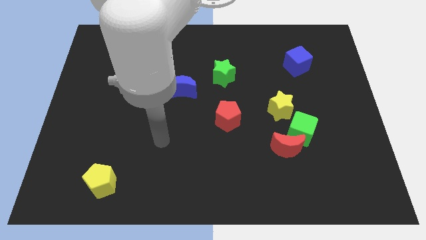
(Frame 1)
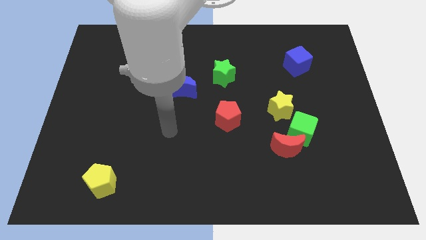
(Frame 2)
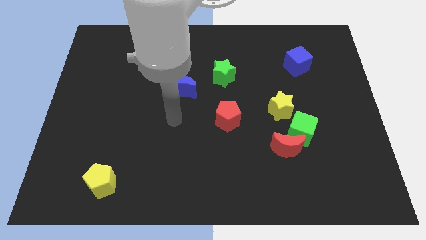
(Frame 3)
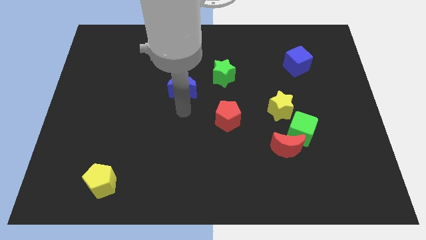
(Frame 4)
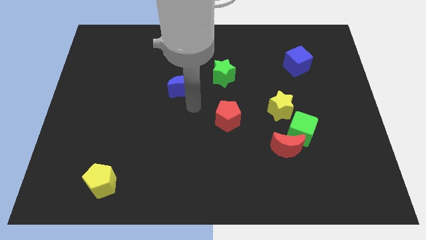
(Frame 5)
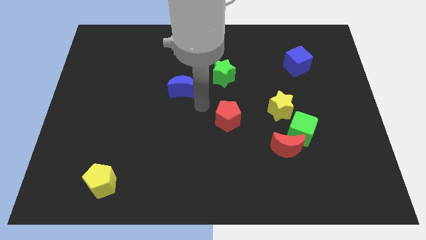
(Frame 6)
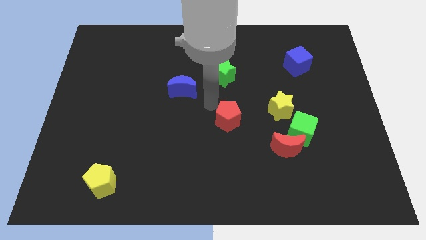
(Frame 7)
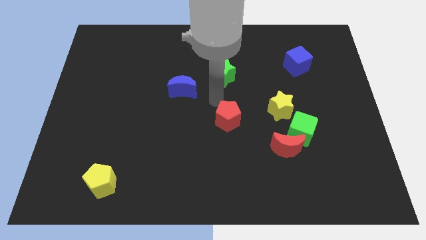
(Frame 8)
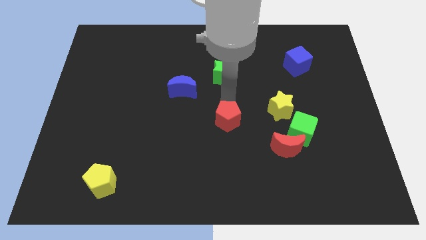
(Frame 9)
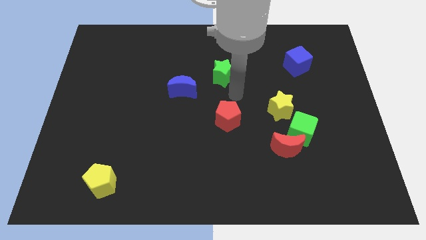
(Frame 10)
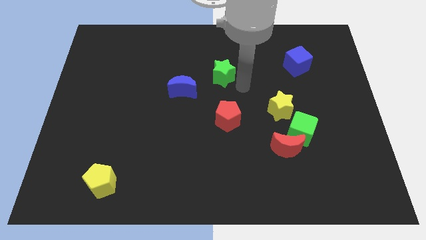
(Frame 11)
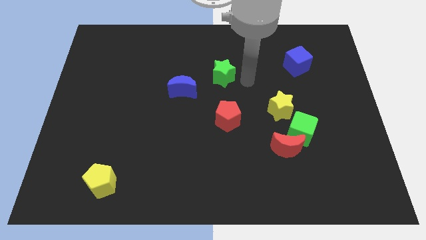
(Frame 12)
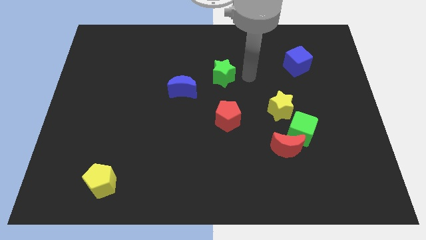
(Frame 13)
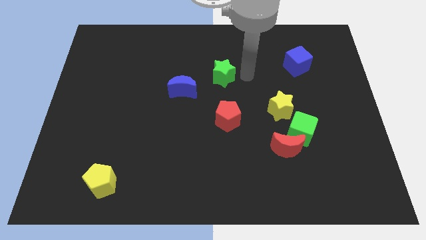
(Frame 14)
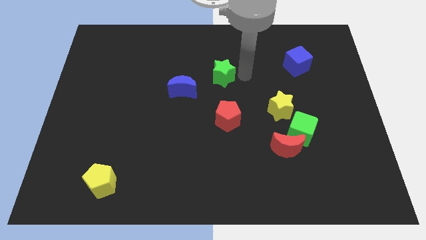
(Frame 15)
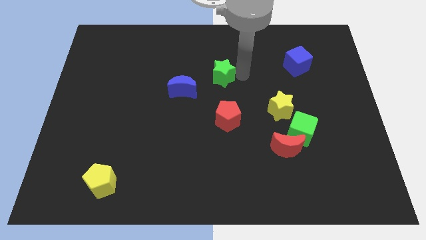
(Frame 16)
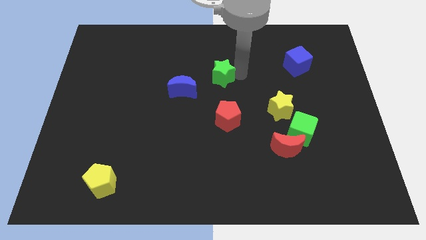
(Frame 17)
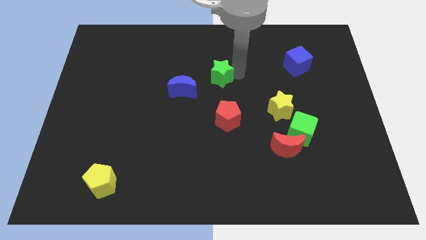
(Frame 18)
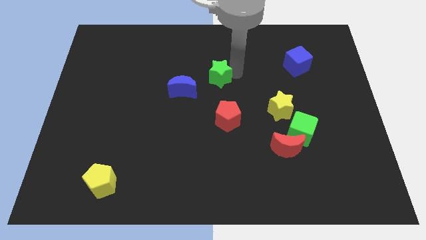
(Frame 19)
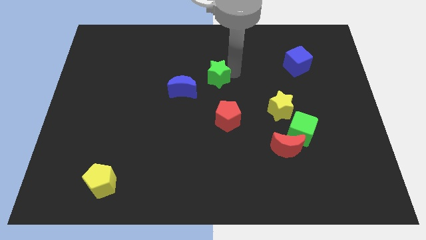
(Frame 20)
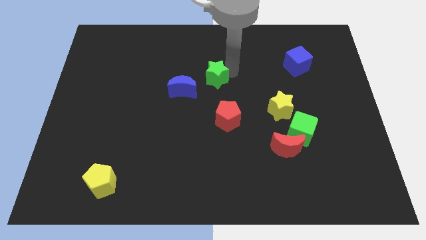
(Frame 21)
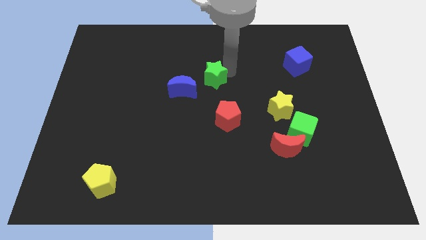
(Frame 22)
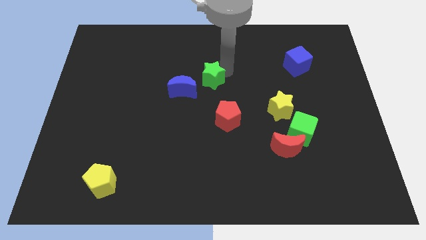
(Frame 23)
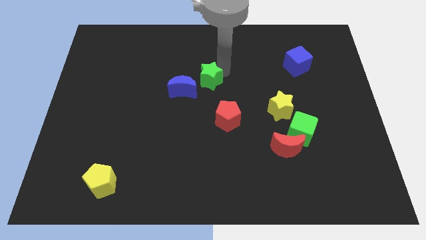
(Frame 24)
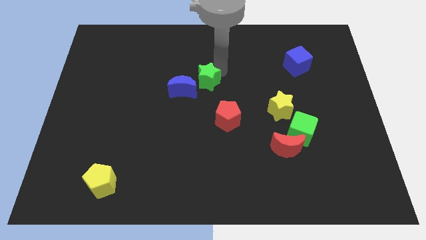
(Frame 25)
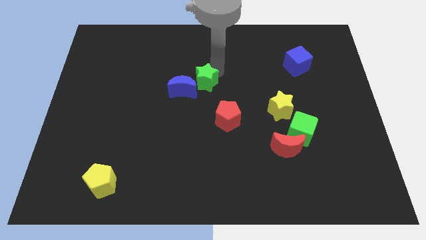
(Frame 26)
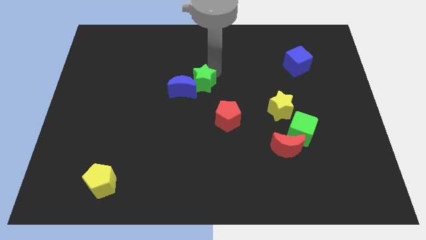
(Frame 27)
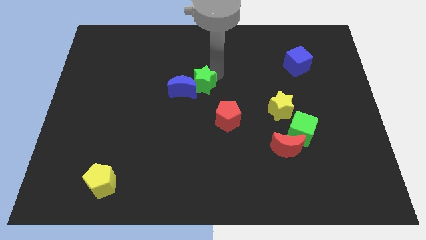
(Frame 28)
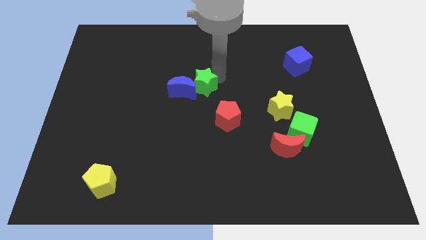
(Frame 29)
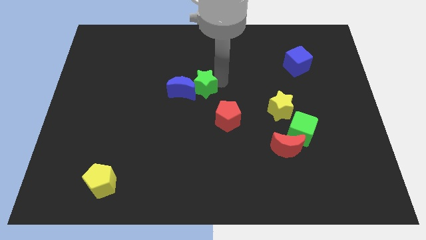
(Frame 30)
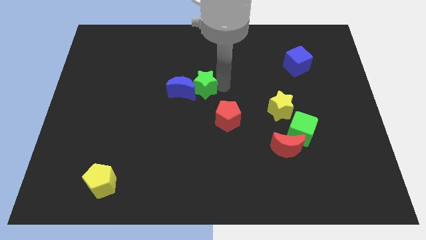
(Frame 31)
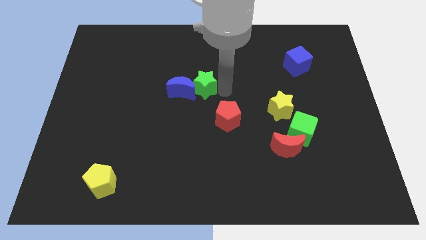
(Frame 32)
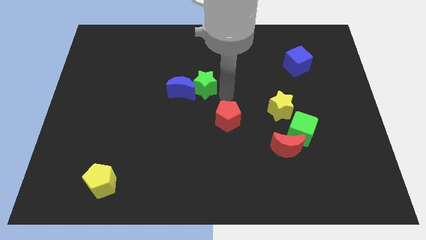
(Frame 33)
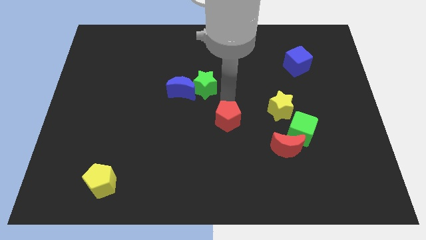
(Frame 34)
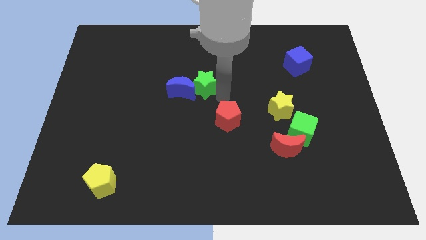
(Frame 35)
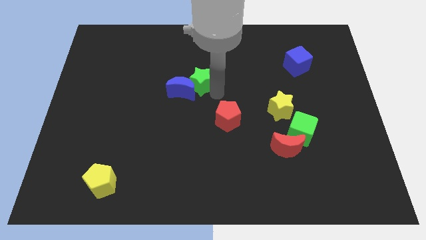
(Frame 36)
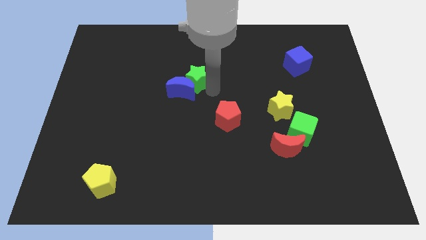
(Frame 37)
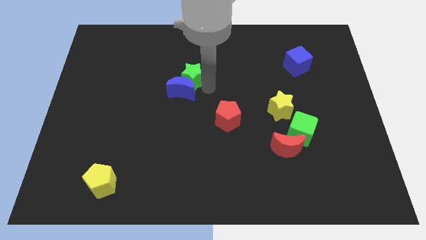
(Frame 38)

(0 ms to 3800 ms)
slightly slide the green star to the left

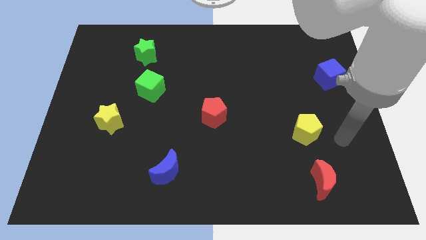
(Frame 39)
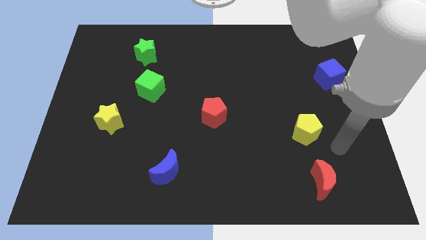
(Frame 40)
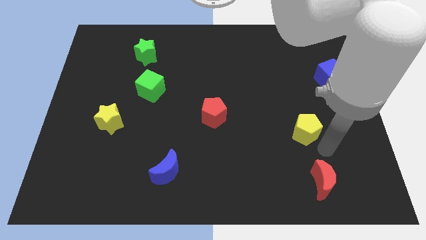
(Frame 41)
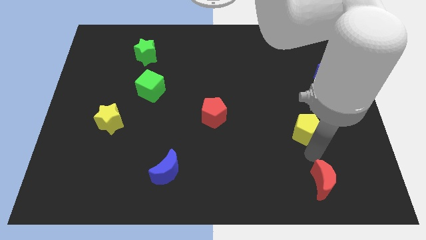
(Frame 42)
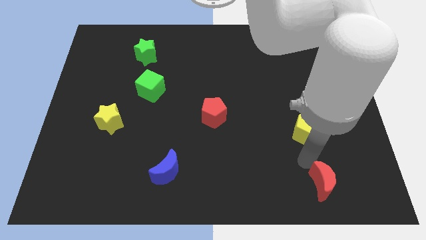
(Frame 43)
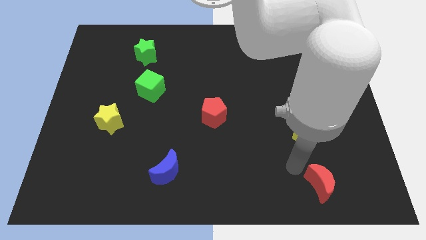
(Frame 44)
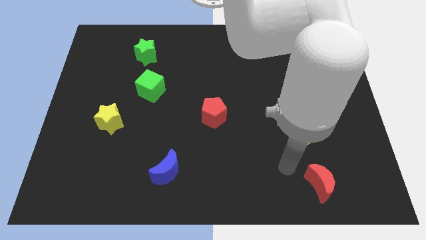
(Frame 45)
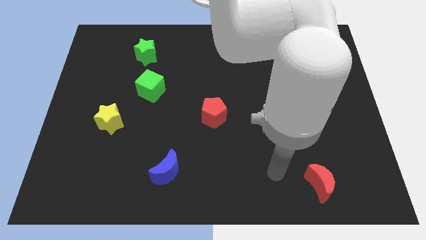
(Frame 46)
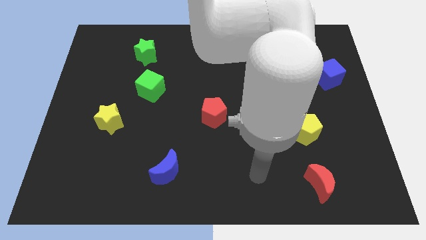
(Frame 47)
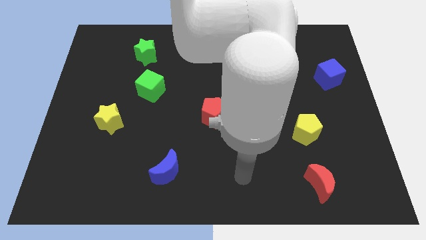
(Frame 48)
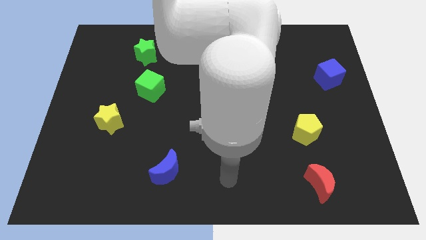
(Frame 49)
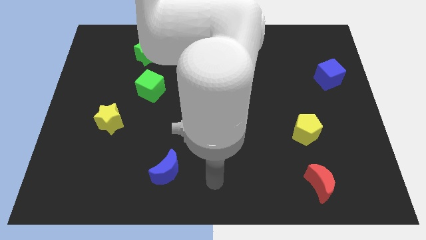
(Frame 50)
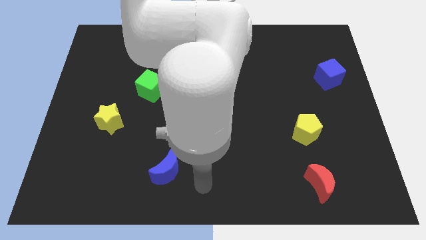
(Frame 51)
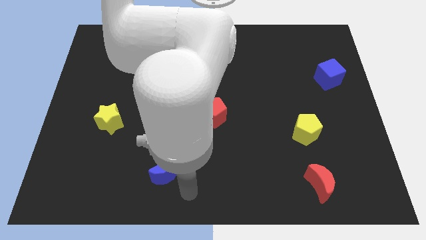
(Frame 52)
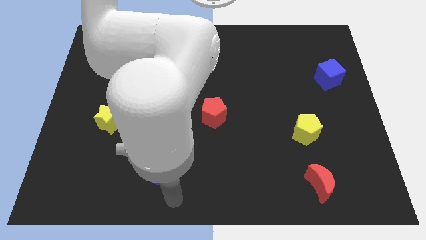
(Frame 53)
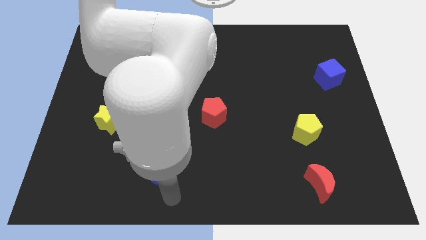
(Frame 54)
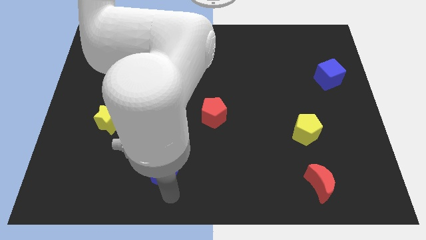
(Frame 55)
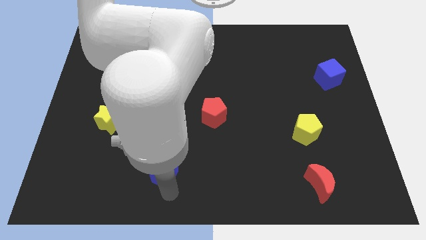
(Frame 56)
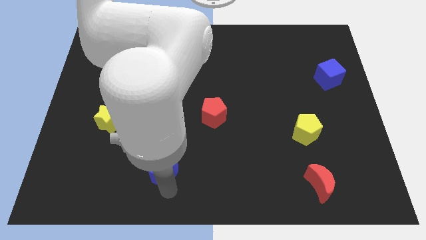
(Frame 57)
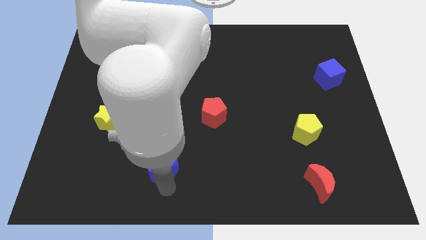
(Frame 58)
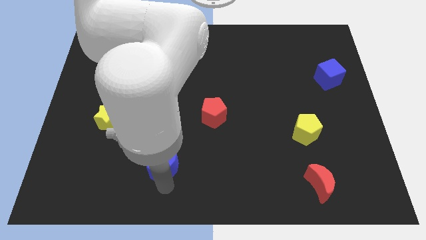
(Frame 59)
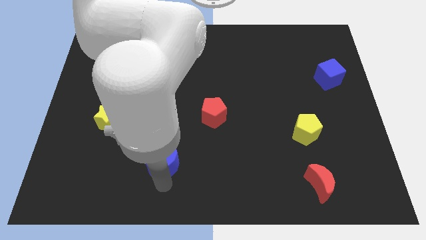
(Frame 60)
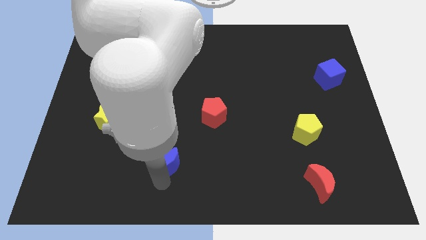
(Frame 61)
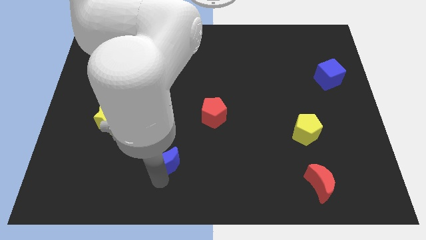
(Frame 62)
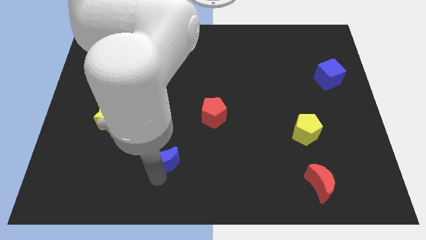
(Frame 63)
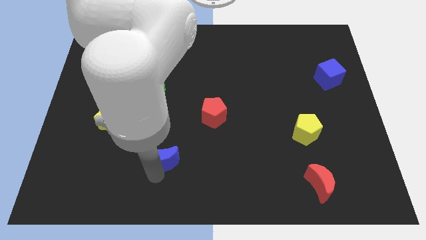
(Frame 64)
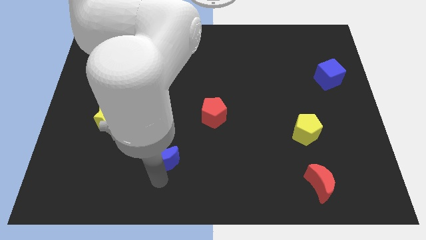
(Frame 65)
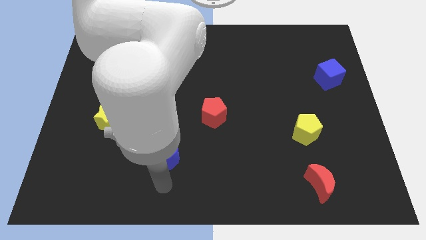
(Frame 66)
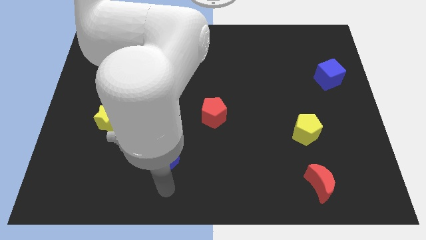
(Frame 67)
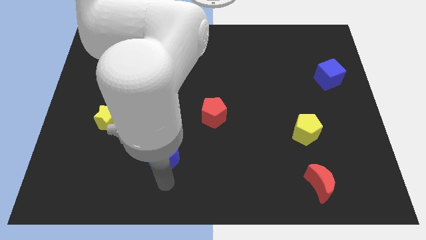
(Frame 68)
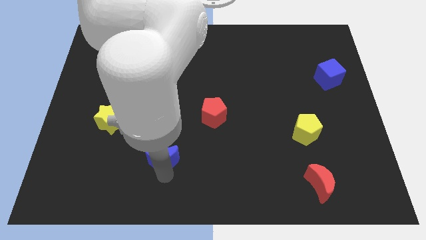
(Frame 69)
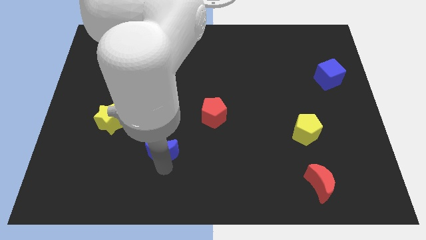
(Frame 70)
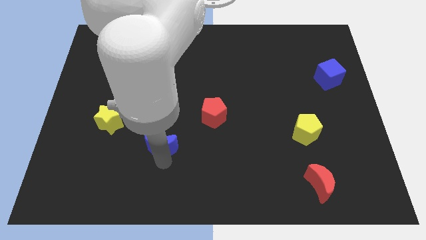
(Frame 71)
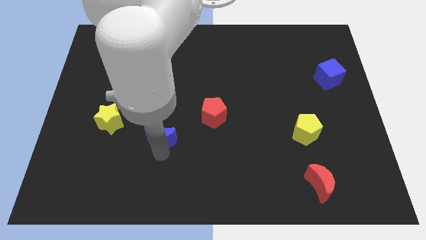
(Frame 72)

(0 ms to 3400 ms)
slightly move the blue moon upwards

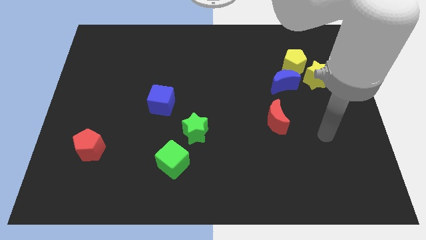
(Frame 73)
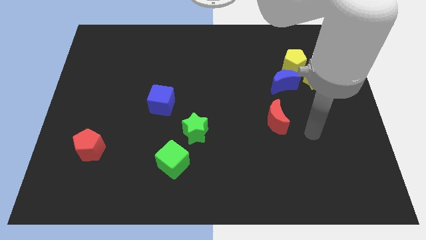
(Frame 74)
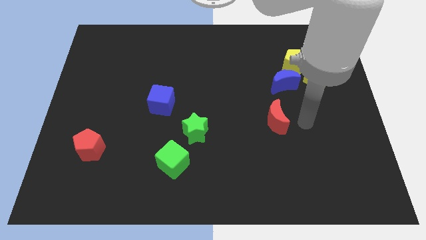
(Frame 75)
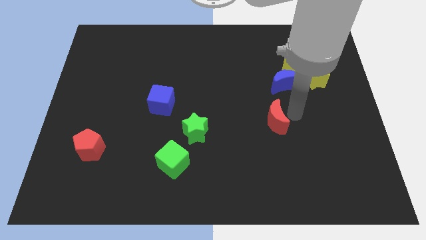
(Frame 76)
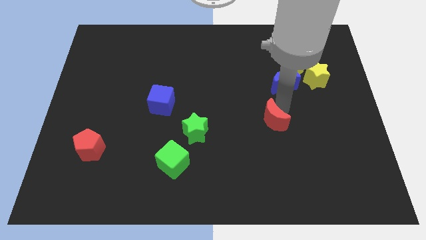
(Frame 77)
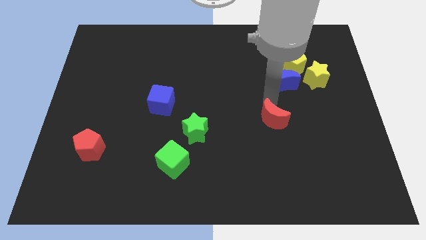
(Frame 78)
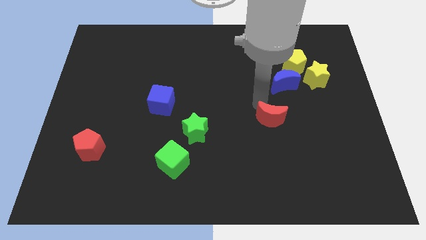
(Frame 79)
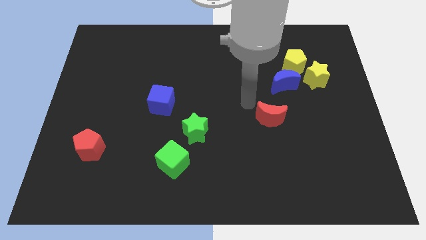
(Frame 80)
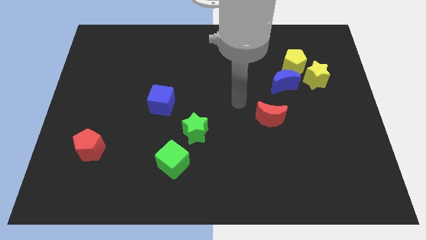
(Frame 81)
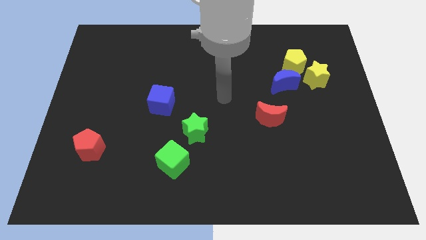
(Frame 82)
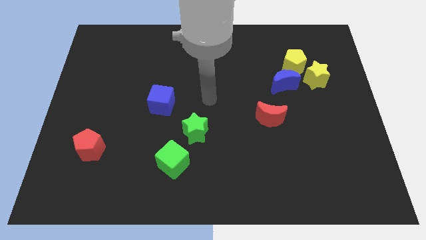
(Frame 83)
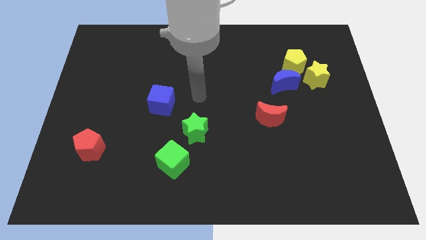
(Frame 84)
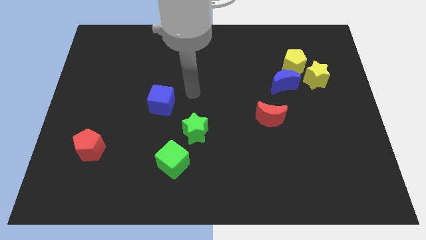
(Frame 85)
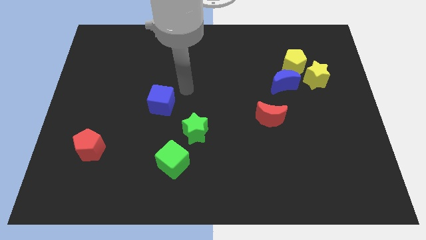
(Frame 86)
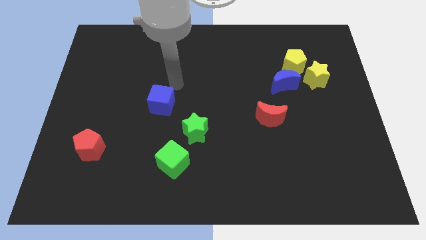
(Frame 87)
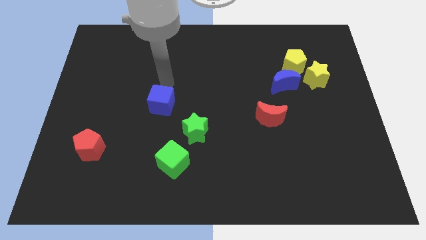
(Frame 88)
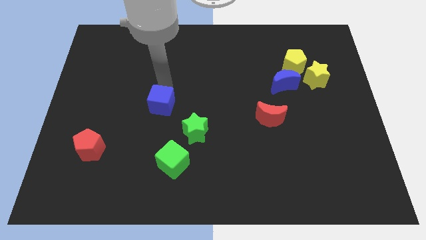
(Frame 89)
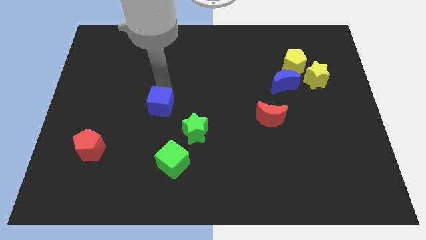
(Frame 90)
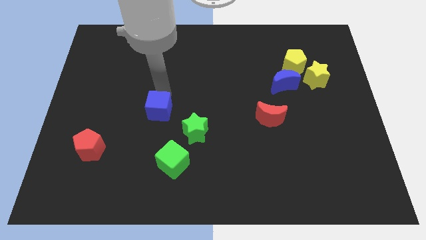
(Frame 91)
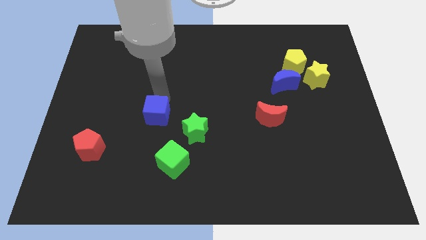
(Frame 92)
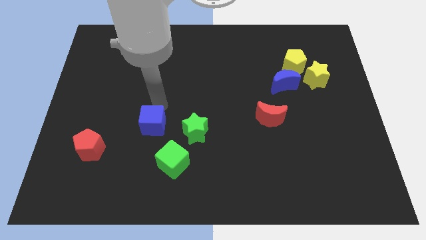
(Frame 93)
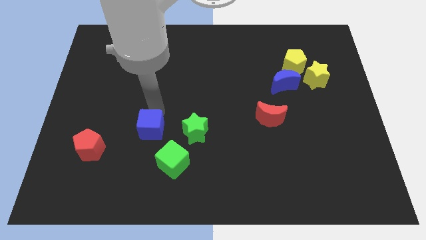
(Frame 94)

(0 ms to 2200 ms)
move the blue cube a little bit down
